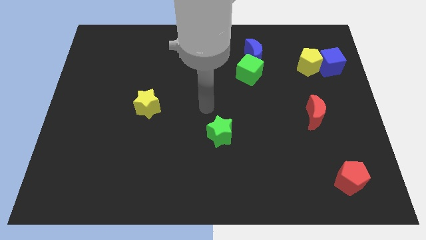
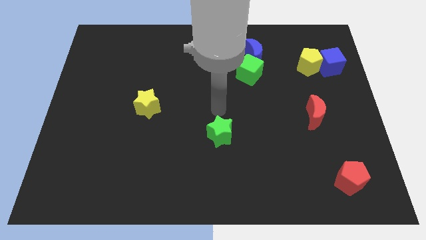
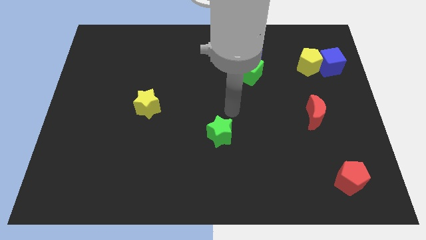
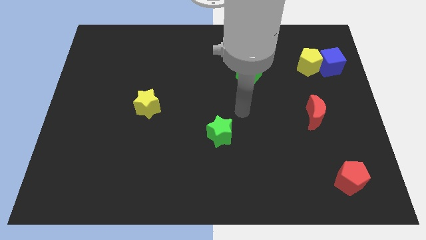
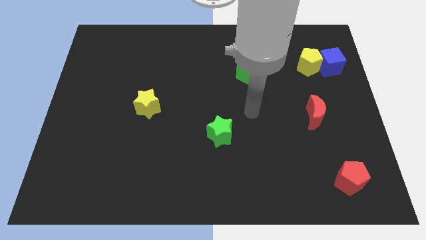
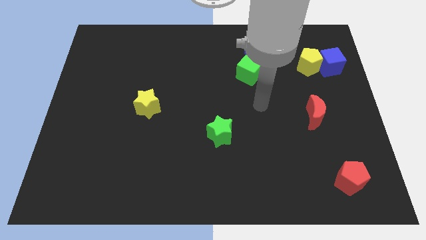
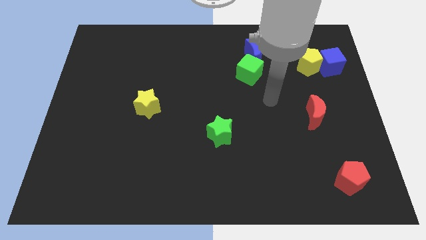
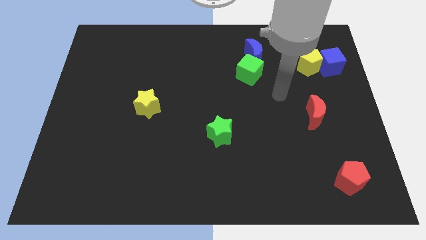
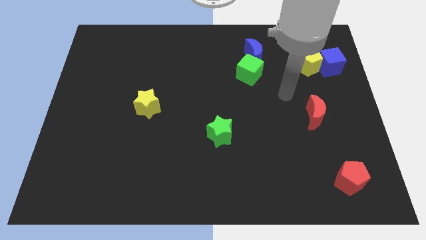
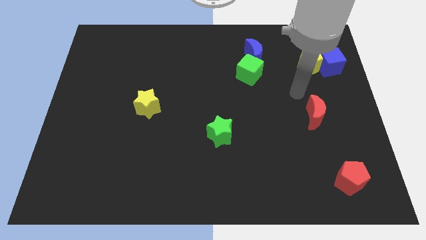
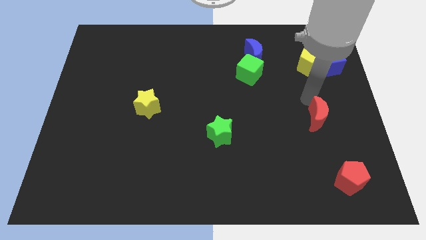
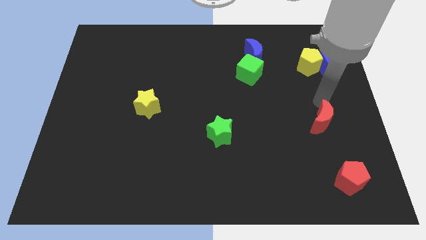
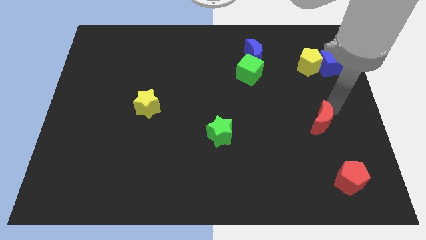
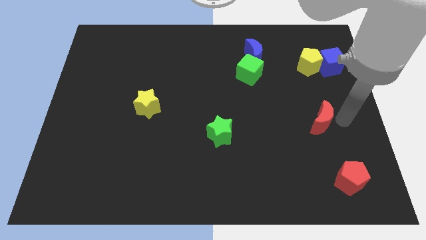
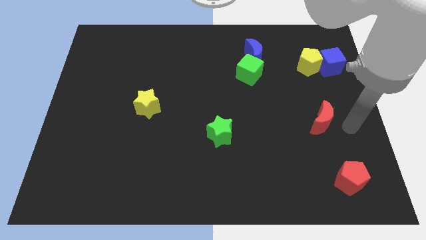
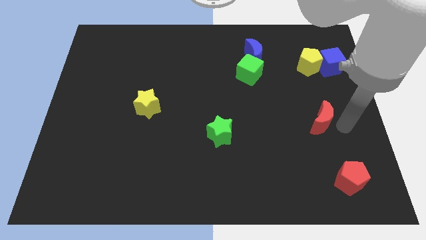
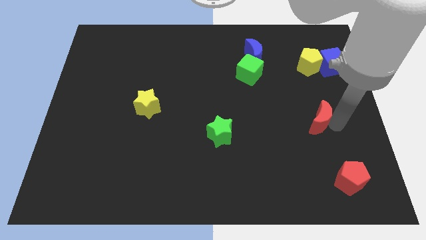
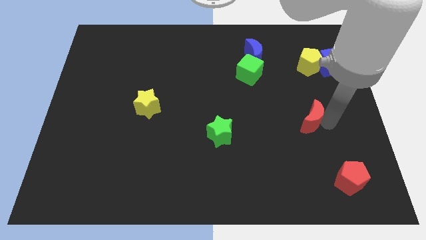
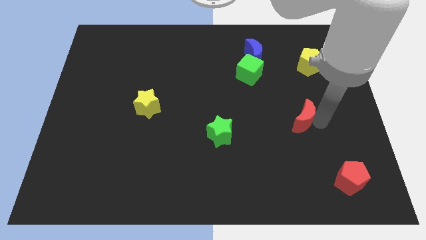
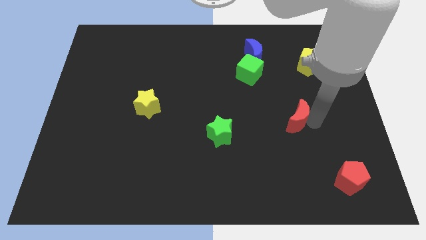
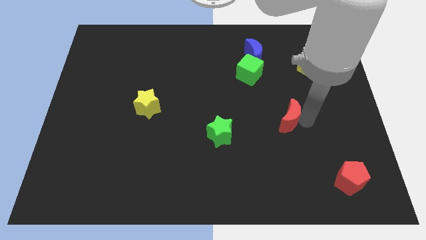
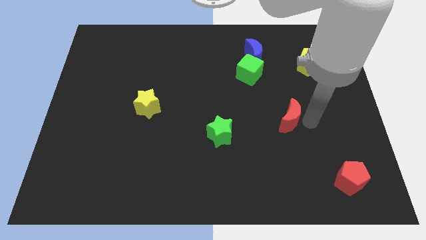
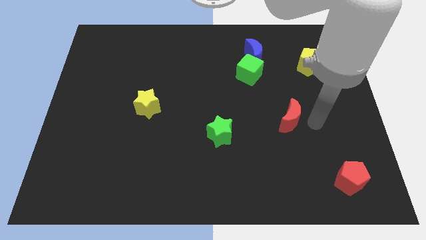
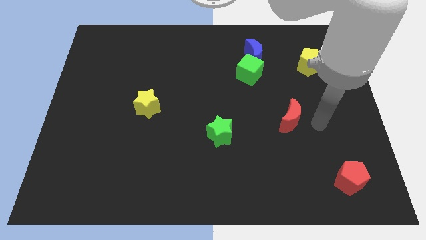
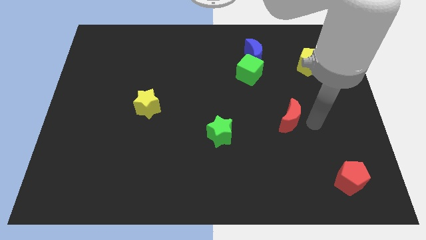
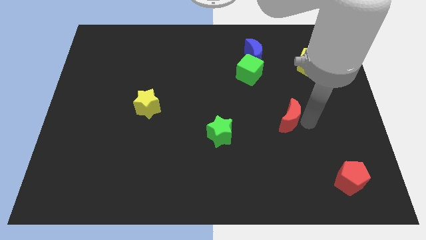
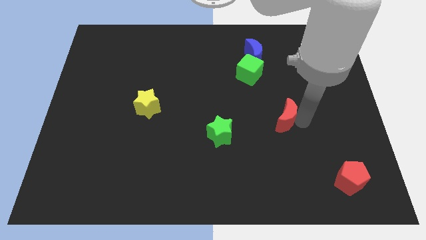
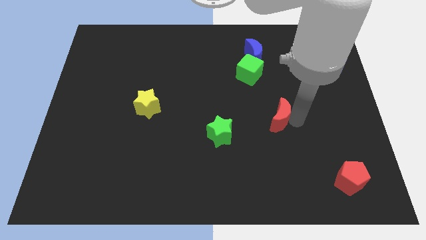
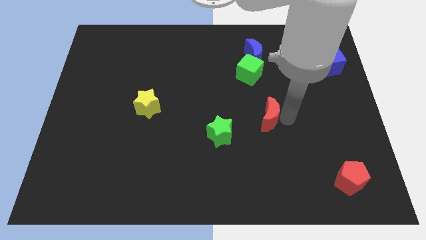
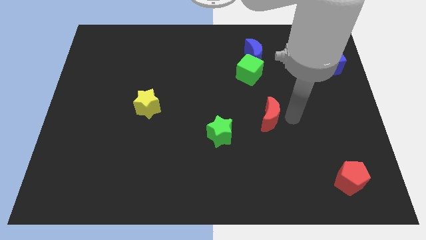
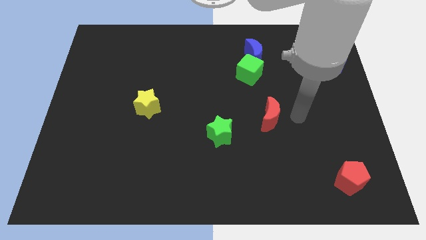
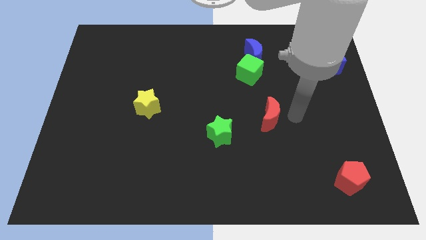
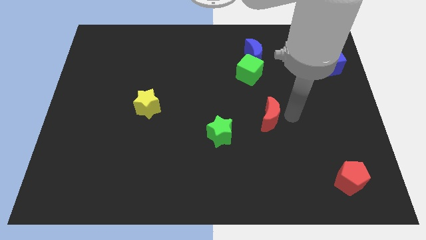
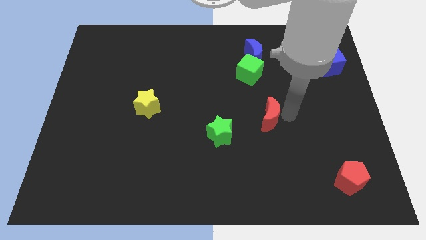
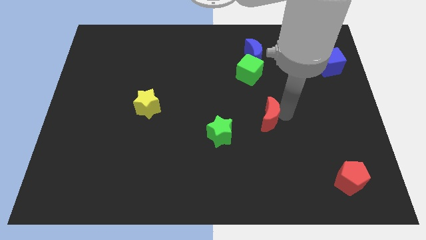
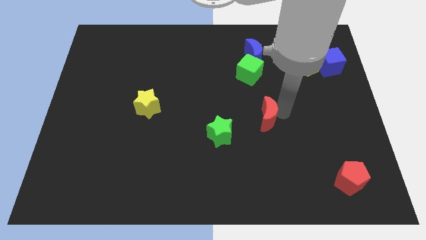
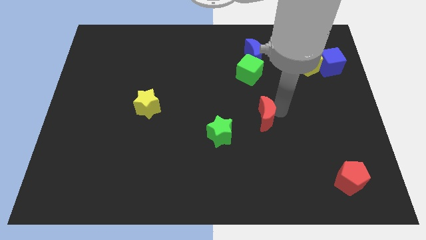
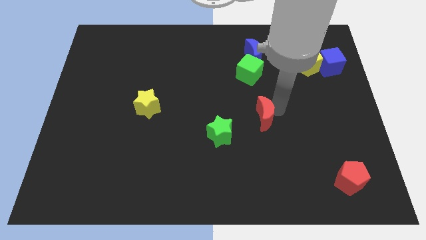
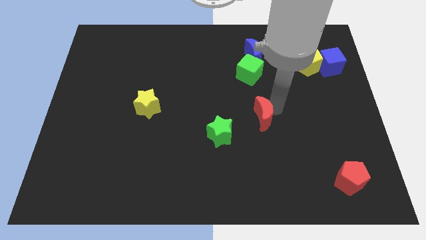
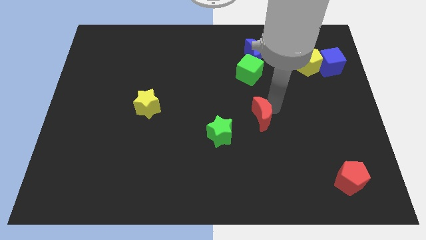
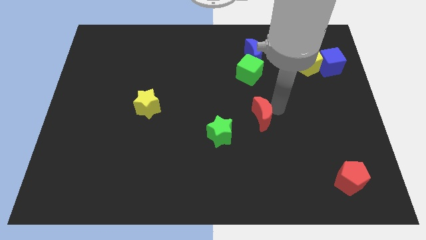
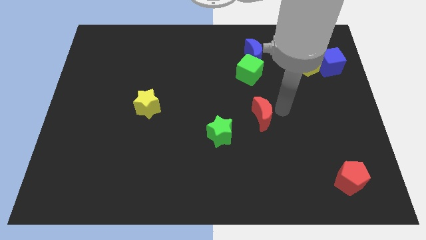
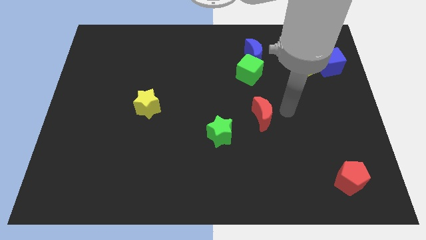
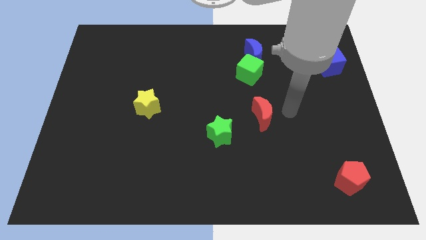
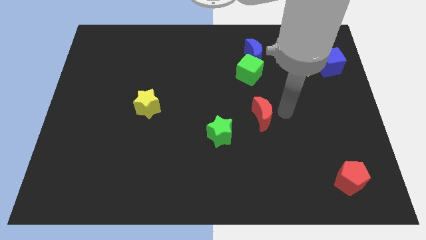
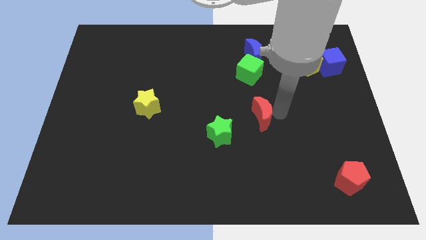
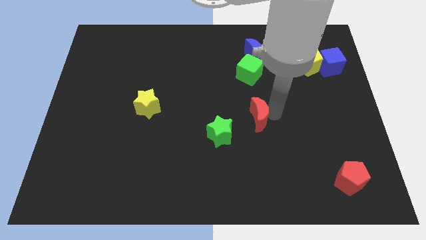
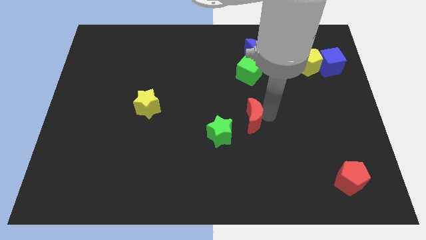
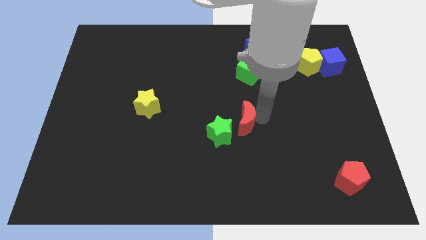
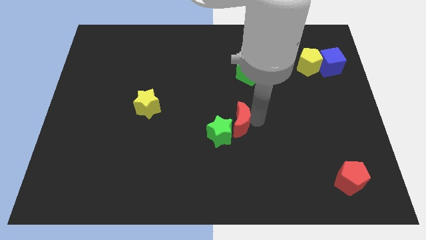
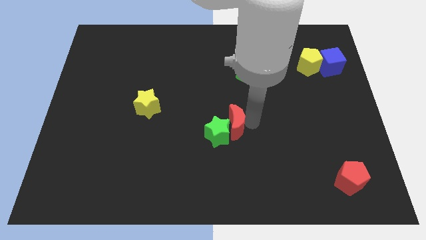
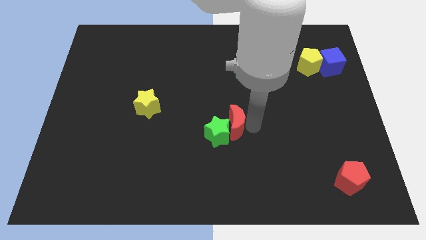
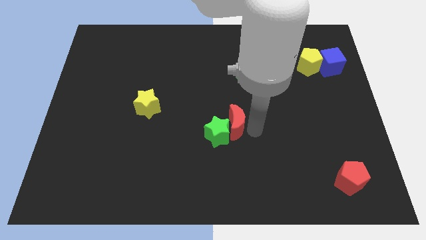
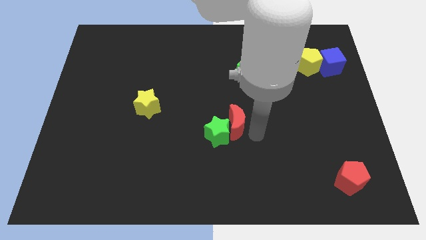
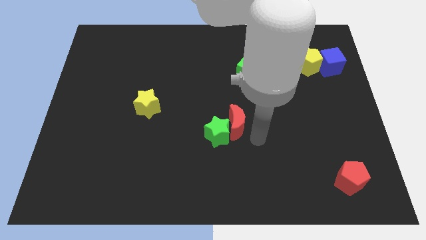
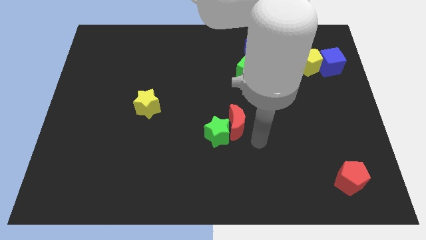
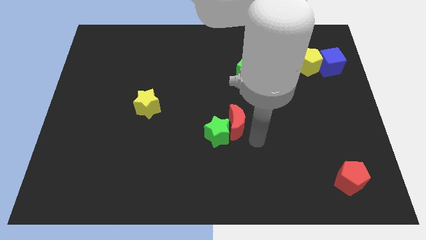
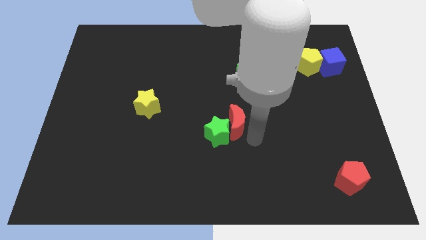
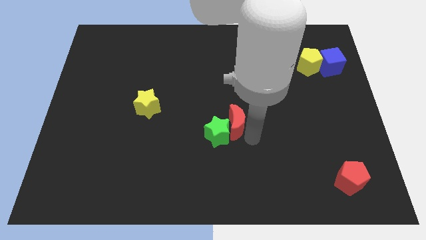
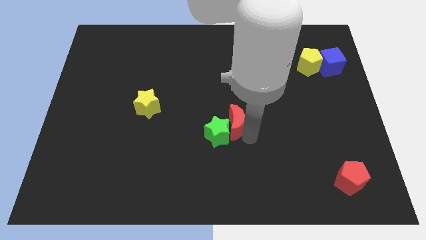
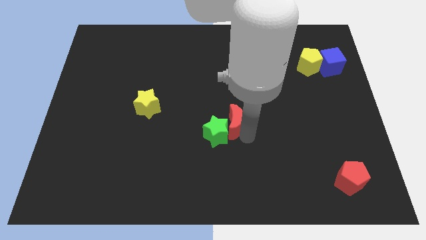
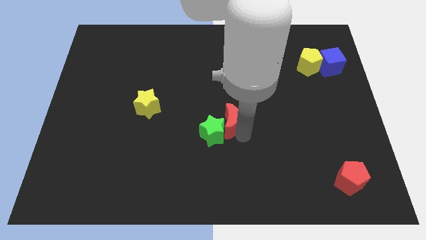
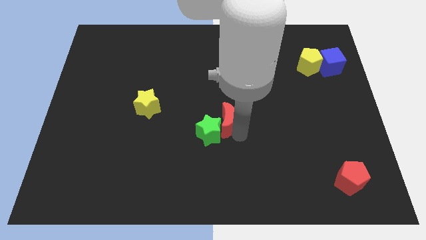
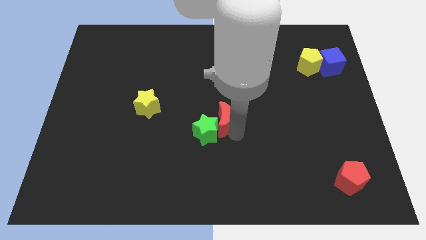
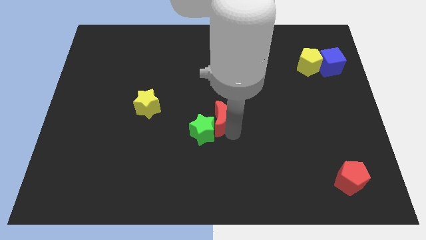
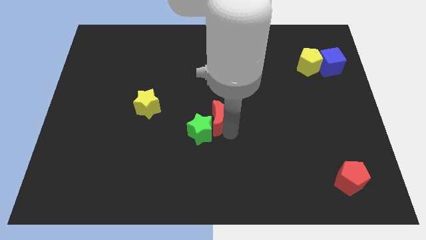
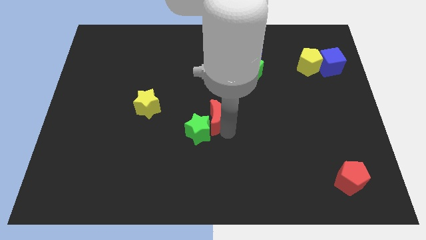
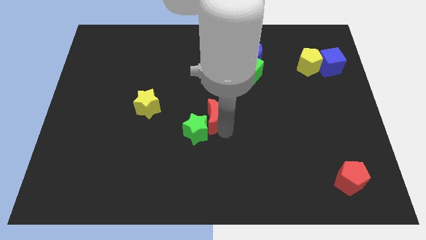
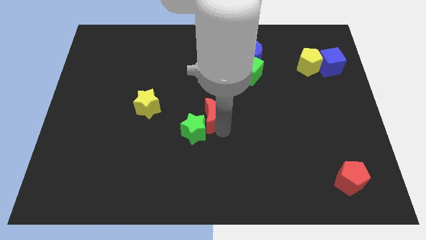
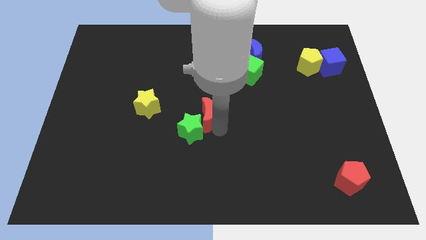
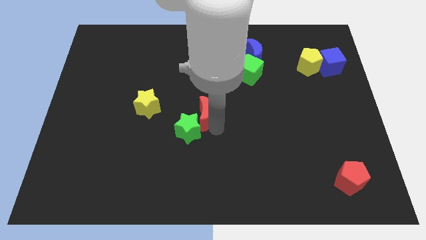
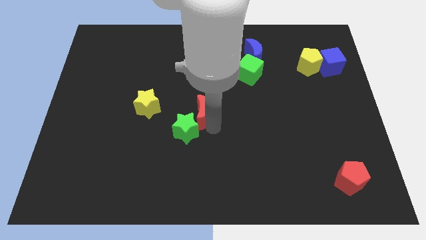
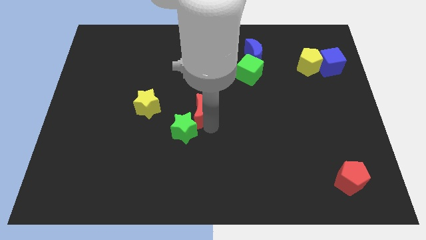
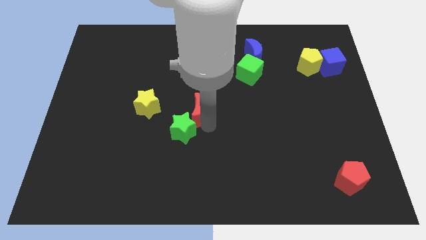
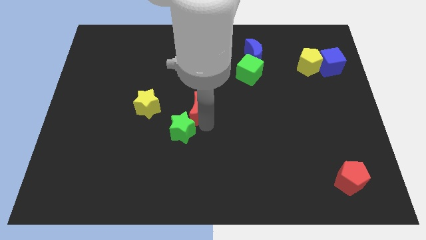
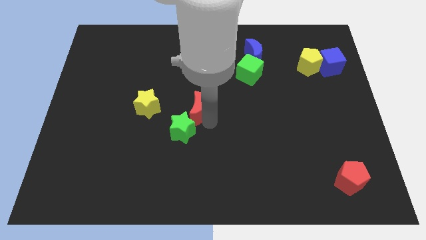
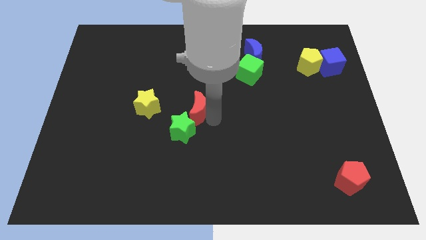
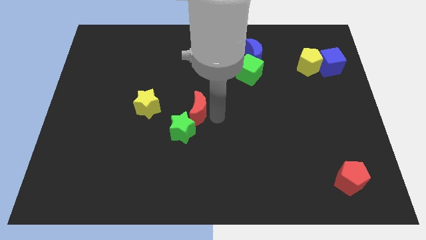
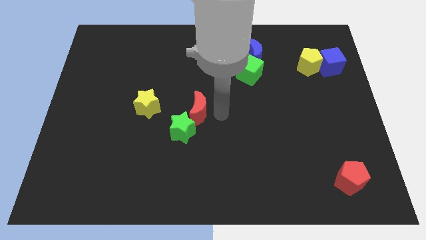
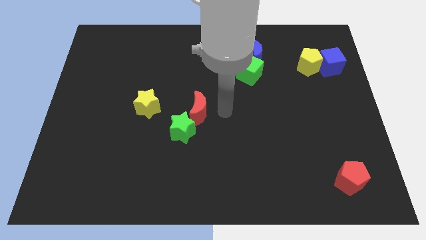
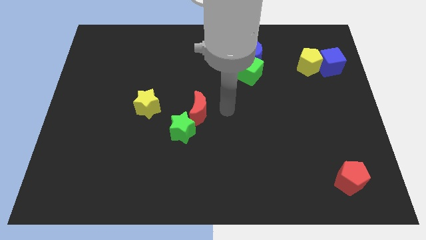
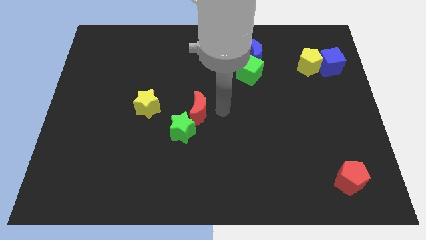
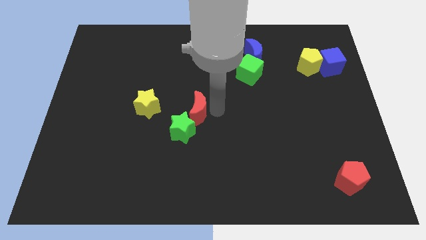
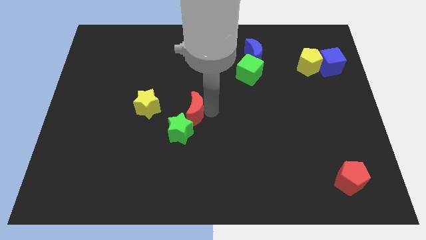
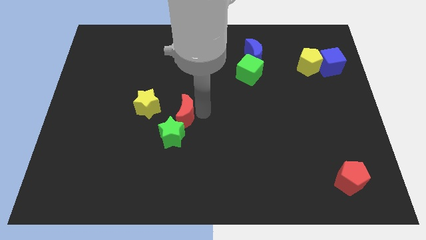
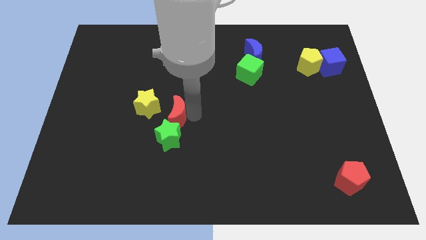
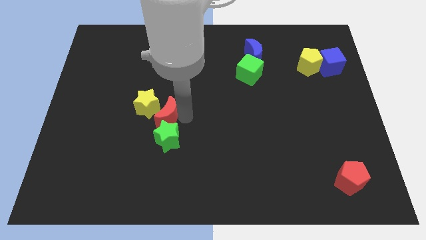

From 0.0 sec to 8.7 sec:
slide the red moon towards the yellow star
